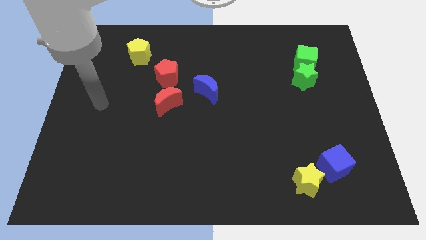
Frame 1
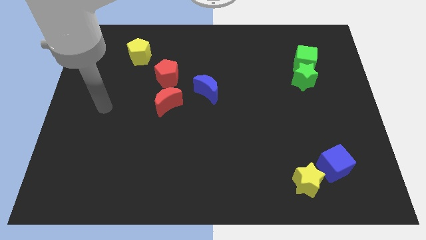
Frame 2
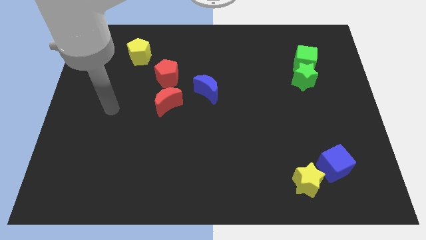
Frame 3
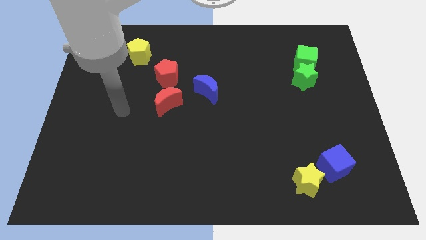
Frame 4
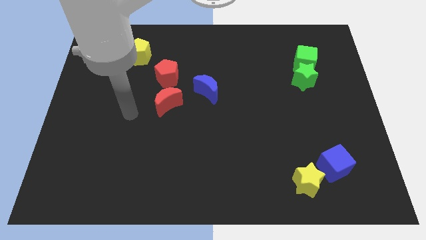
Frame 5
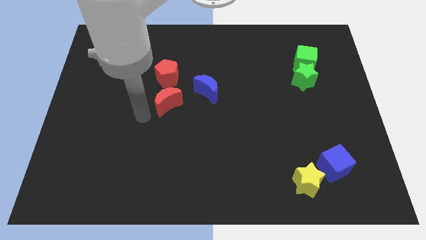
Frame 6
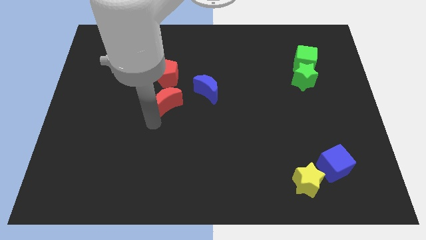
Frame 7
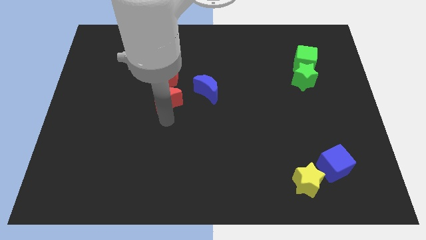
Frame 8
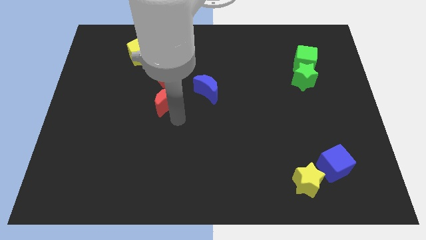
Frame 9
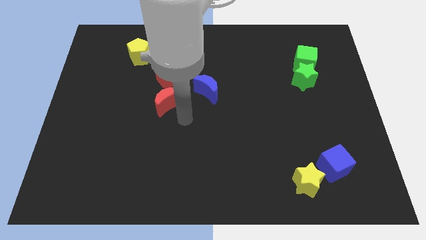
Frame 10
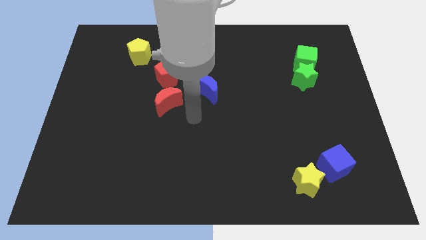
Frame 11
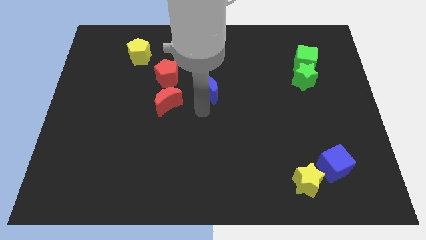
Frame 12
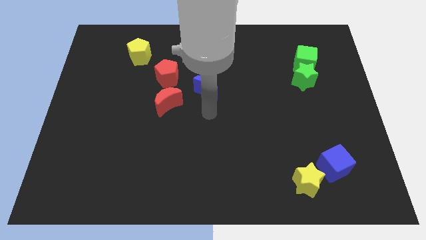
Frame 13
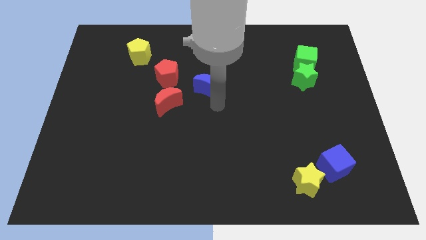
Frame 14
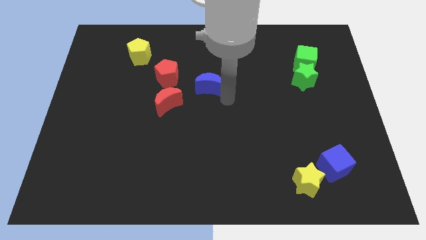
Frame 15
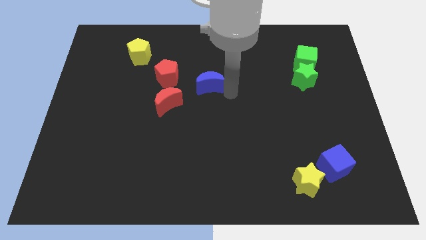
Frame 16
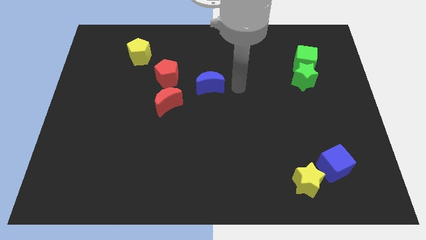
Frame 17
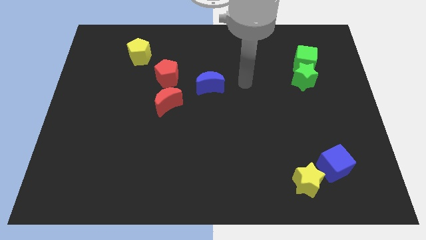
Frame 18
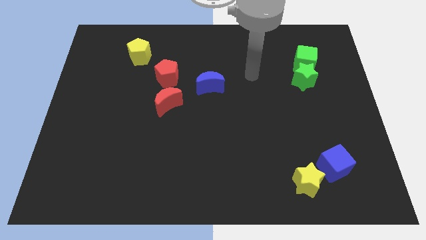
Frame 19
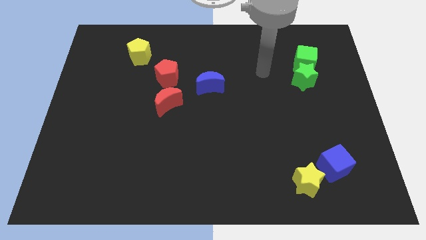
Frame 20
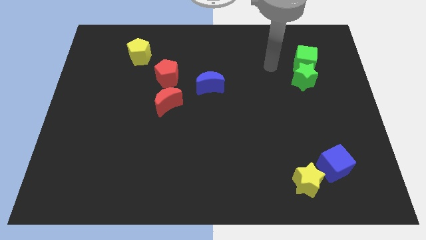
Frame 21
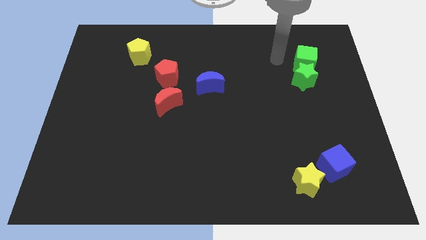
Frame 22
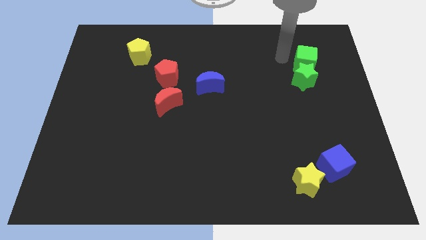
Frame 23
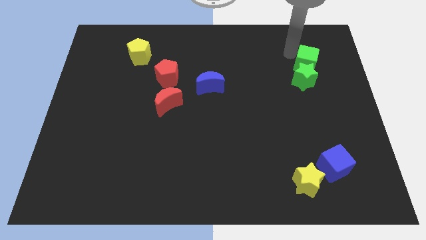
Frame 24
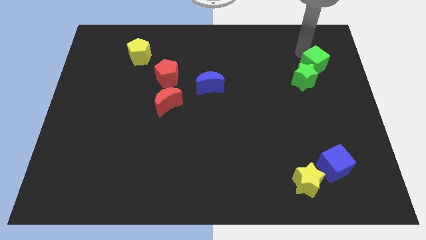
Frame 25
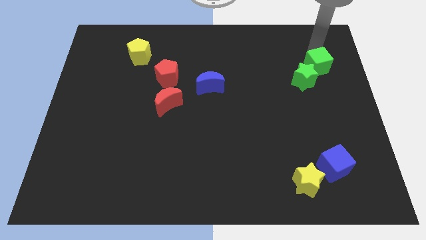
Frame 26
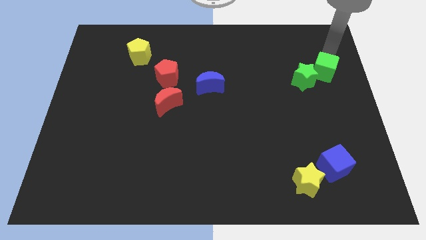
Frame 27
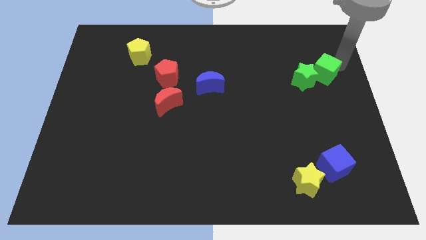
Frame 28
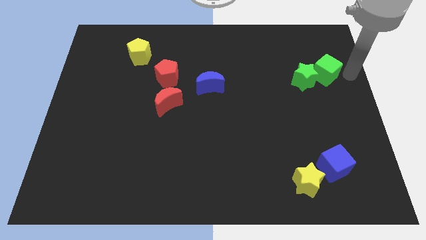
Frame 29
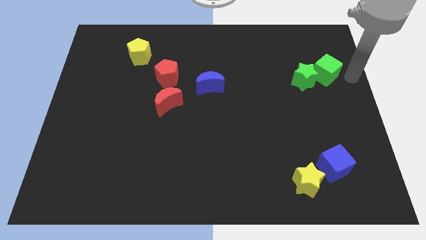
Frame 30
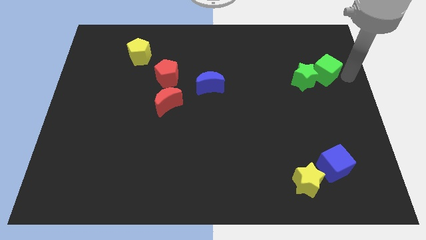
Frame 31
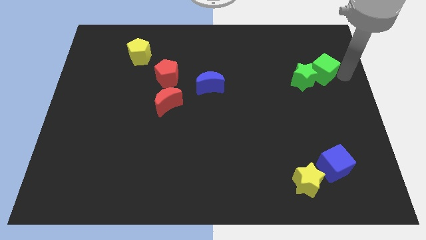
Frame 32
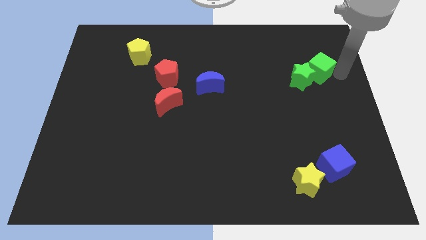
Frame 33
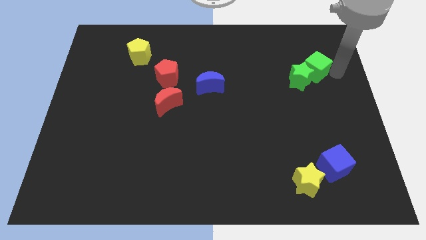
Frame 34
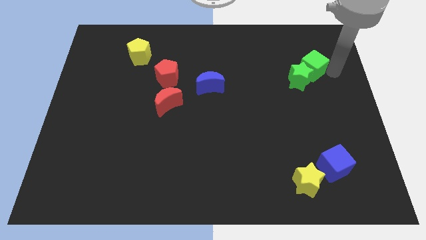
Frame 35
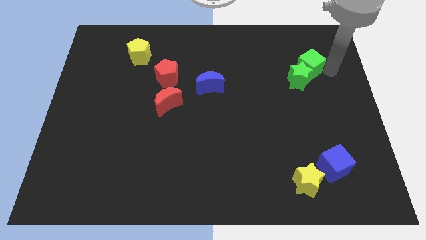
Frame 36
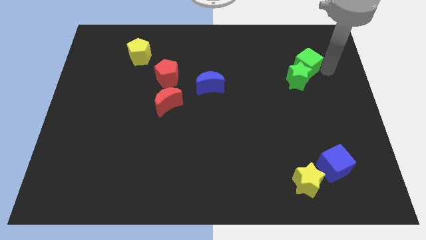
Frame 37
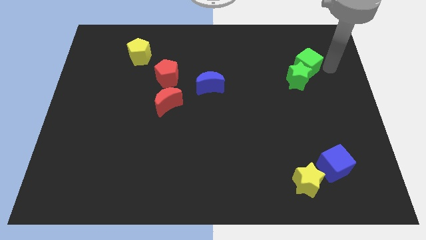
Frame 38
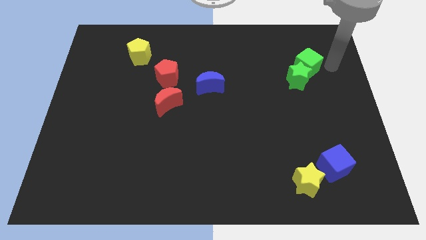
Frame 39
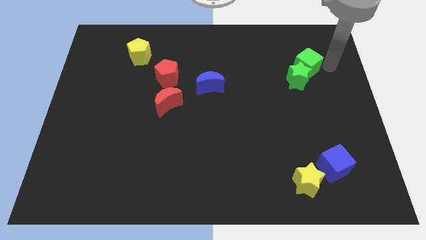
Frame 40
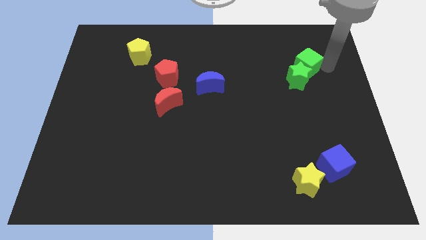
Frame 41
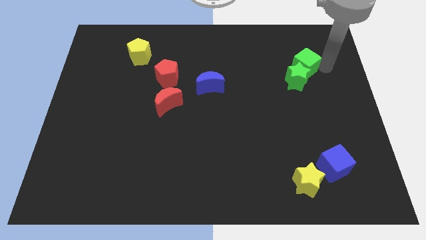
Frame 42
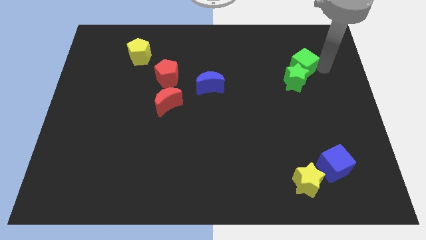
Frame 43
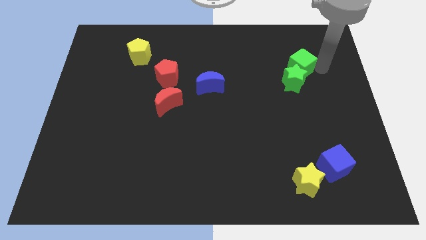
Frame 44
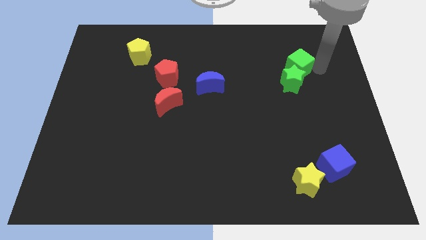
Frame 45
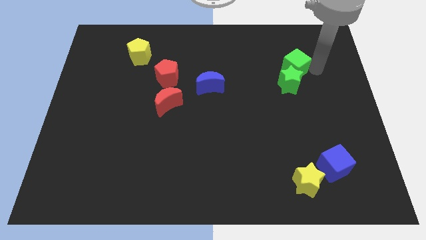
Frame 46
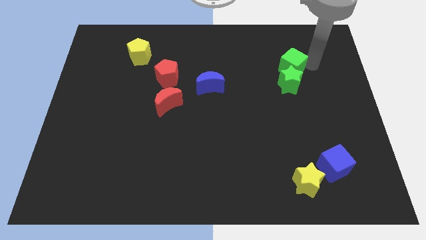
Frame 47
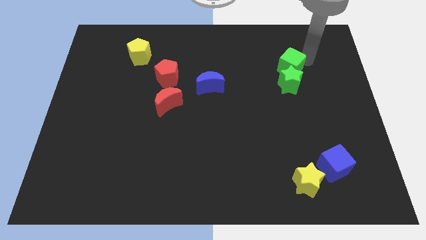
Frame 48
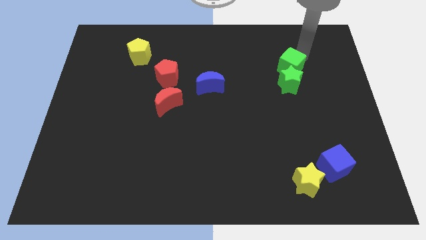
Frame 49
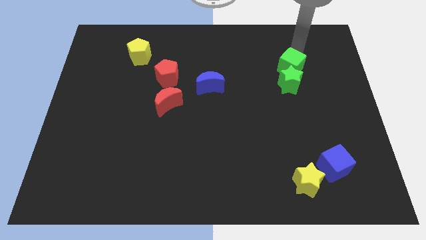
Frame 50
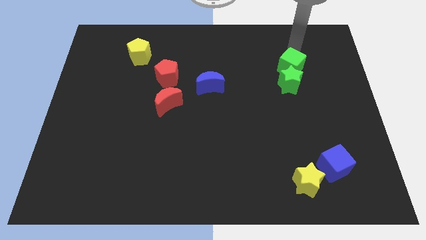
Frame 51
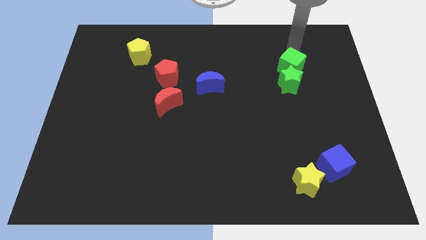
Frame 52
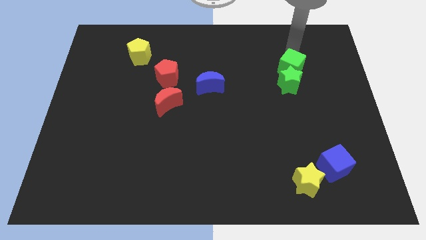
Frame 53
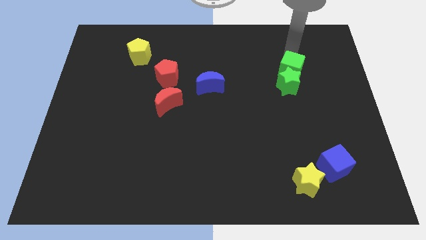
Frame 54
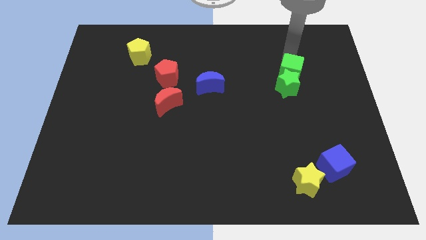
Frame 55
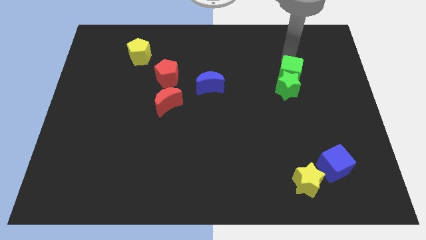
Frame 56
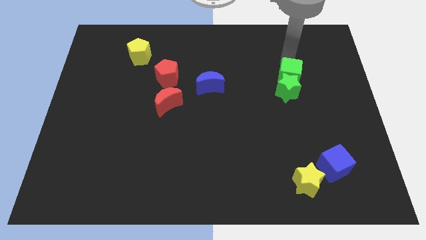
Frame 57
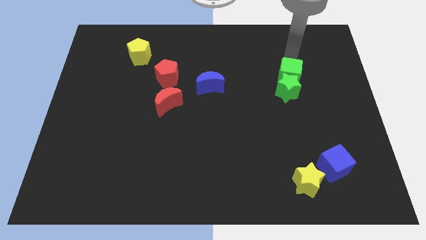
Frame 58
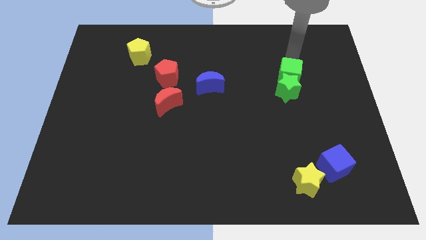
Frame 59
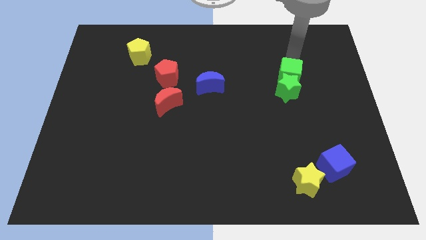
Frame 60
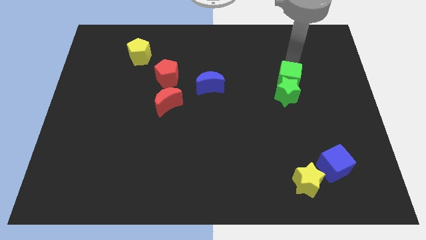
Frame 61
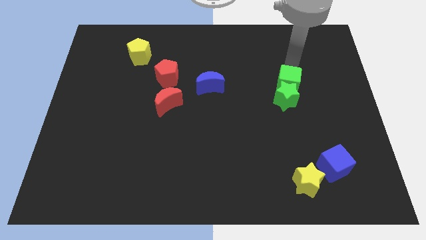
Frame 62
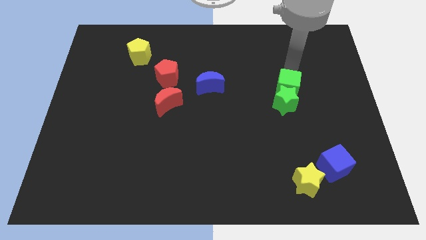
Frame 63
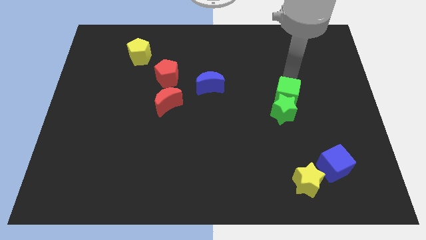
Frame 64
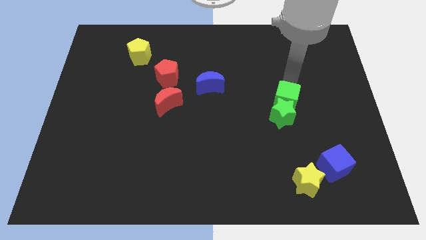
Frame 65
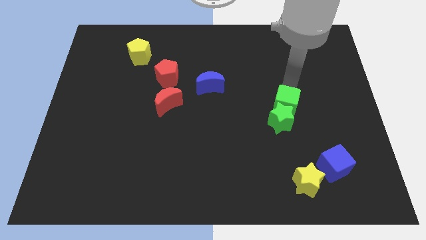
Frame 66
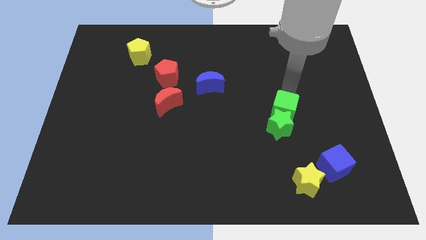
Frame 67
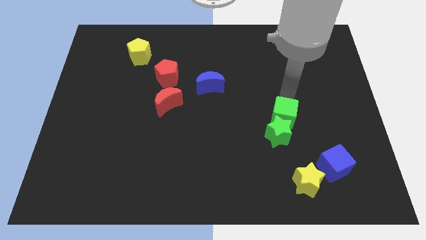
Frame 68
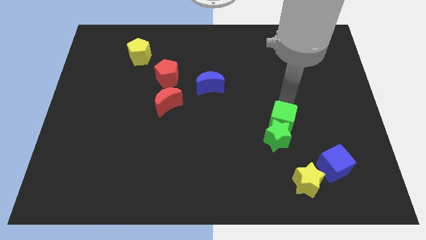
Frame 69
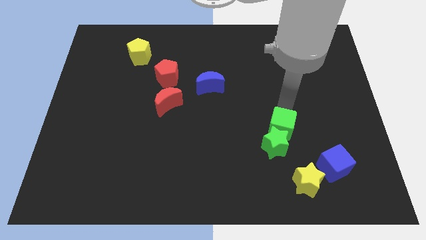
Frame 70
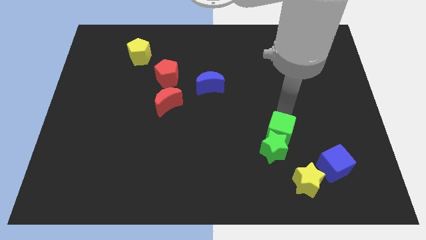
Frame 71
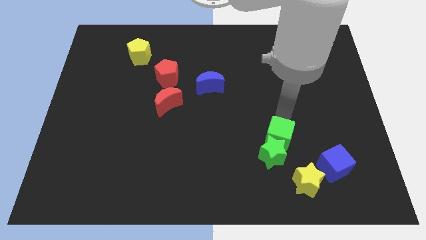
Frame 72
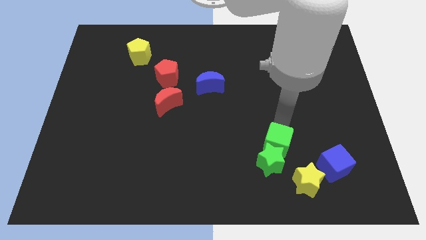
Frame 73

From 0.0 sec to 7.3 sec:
push the green cube to the top left of the yellow star
